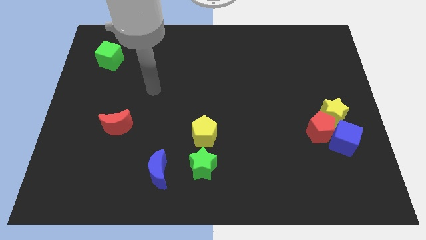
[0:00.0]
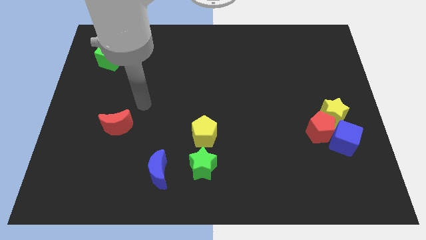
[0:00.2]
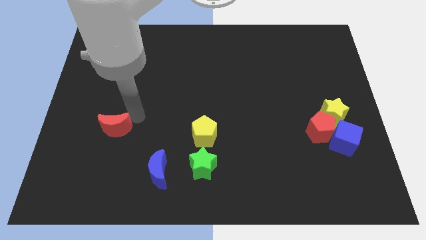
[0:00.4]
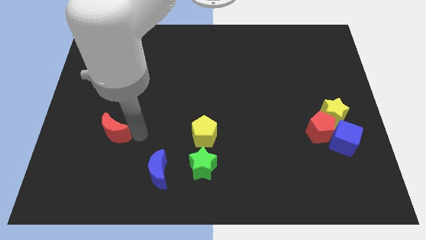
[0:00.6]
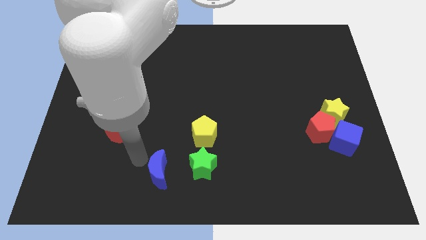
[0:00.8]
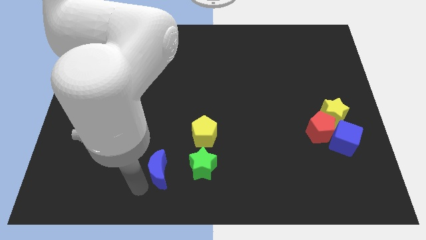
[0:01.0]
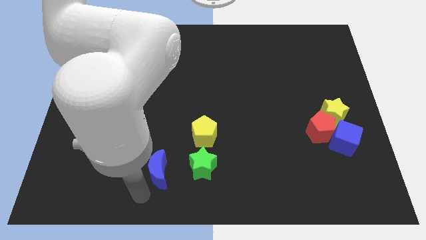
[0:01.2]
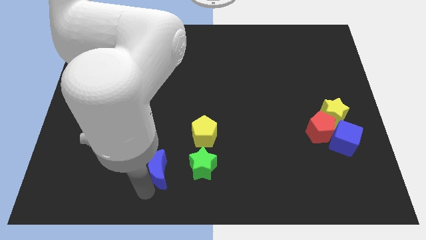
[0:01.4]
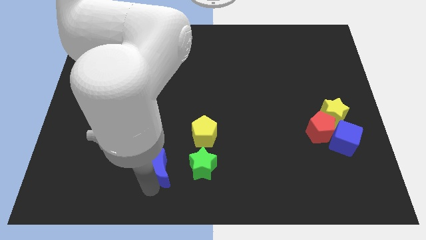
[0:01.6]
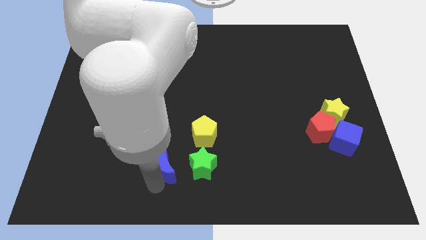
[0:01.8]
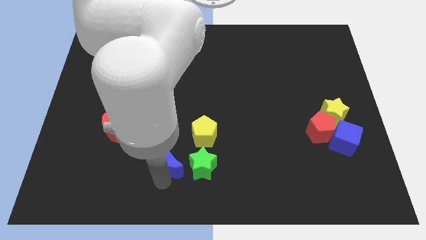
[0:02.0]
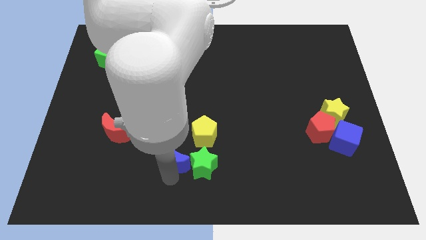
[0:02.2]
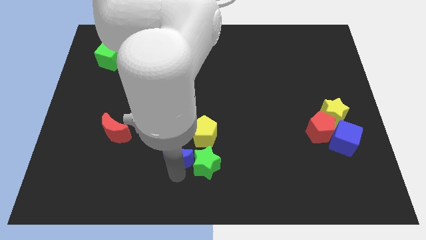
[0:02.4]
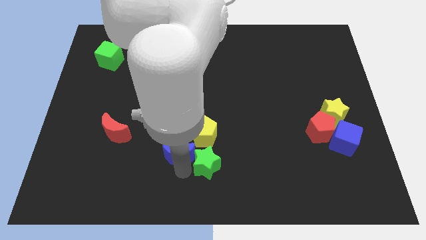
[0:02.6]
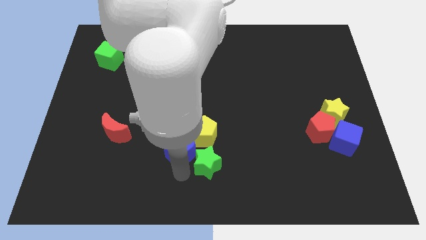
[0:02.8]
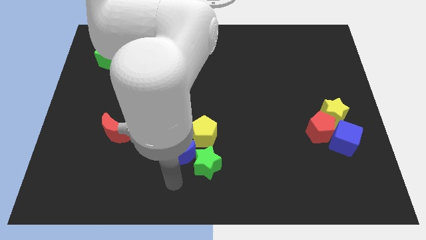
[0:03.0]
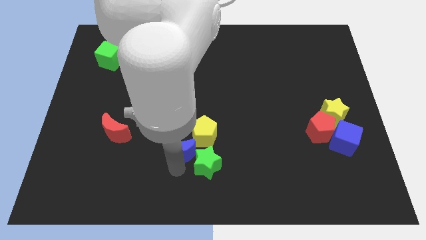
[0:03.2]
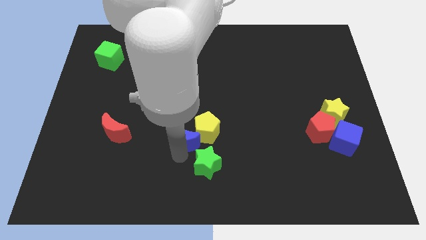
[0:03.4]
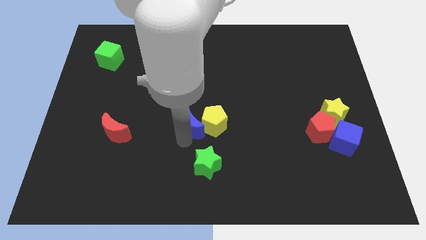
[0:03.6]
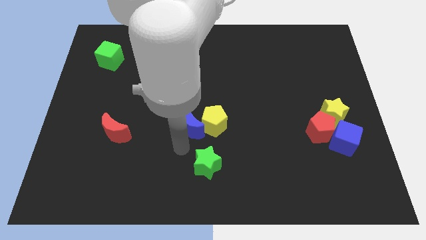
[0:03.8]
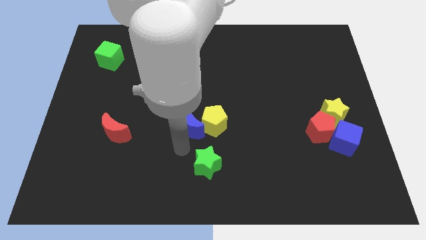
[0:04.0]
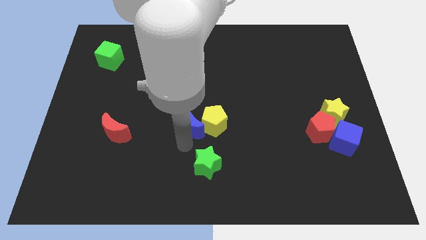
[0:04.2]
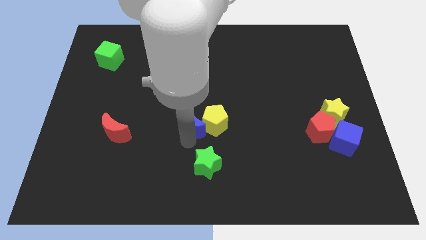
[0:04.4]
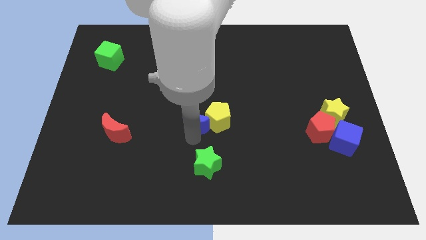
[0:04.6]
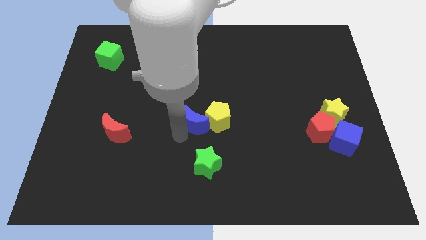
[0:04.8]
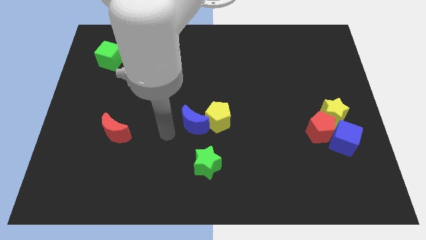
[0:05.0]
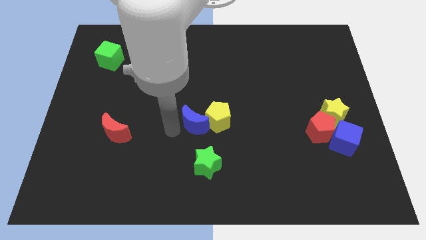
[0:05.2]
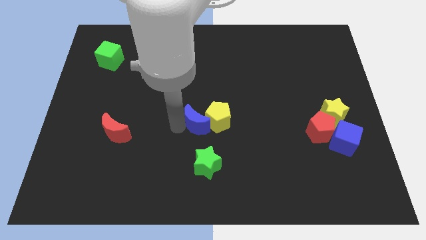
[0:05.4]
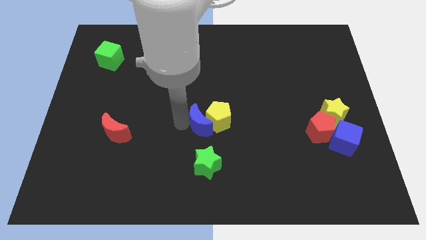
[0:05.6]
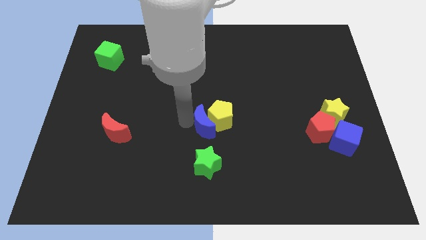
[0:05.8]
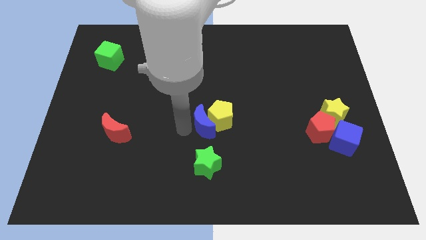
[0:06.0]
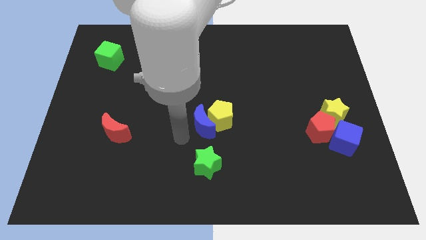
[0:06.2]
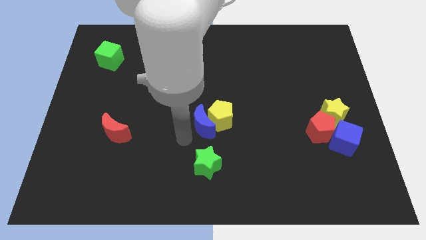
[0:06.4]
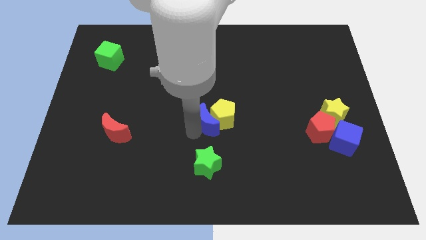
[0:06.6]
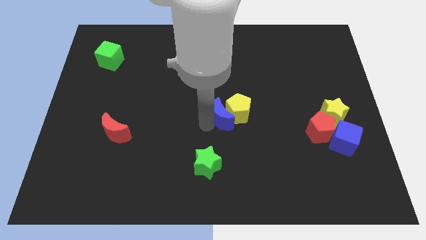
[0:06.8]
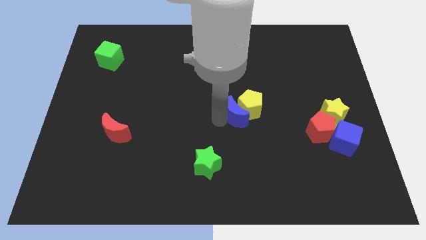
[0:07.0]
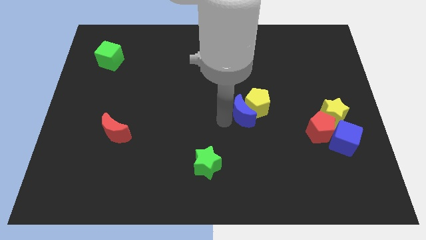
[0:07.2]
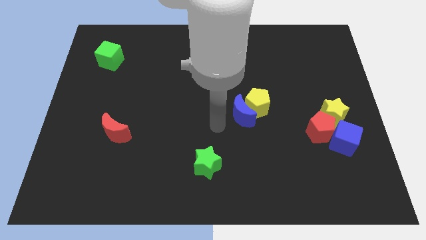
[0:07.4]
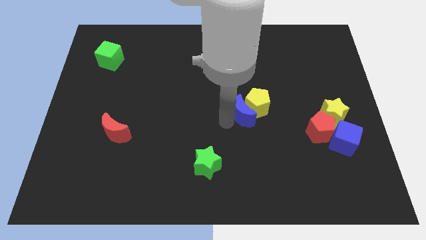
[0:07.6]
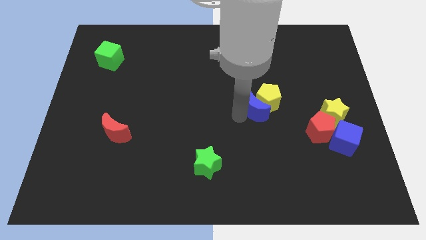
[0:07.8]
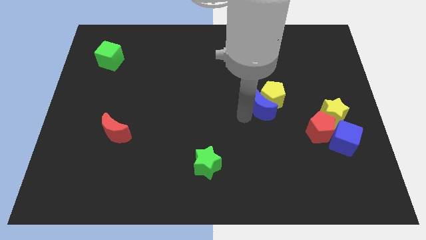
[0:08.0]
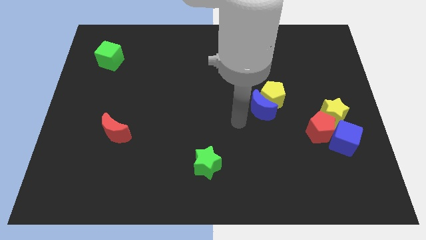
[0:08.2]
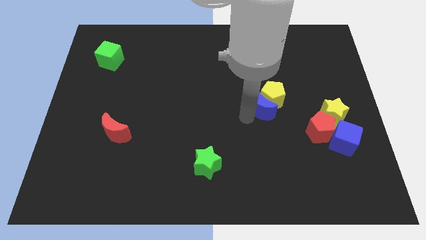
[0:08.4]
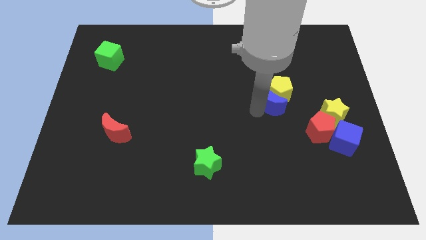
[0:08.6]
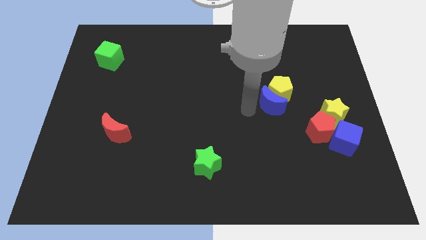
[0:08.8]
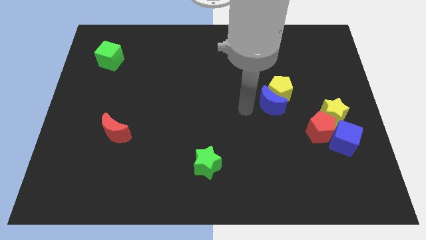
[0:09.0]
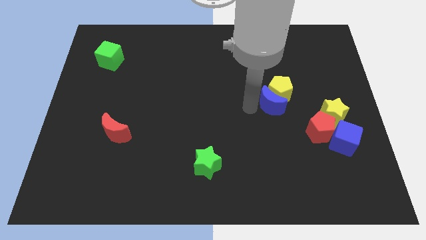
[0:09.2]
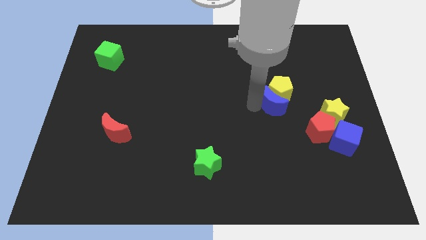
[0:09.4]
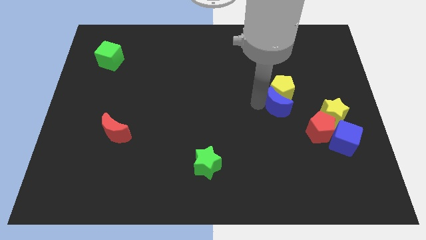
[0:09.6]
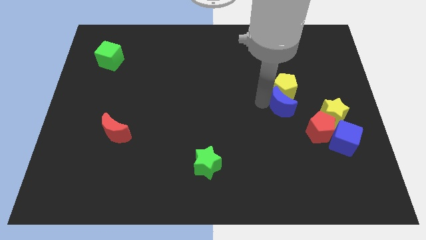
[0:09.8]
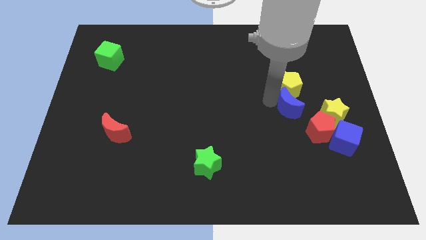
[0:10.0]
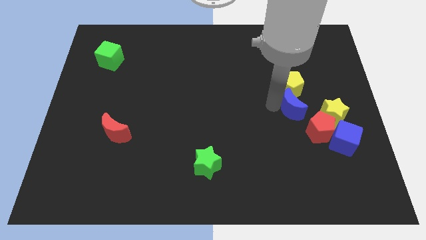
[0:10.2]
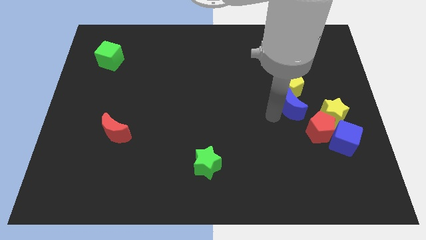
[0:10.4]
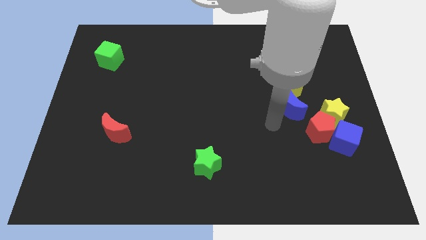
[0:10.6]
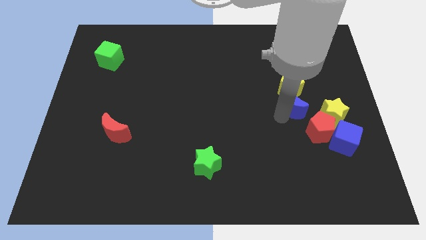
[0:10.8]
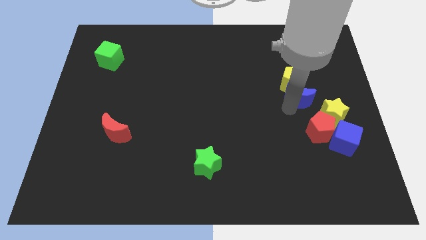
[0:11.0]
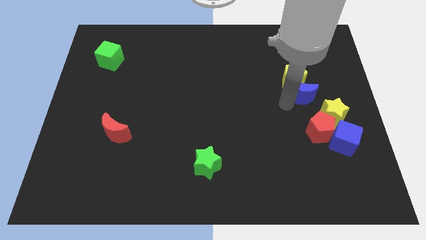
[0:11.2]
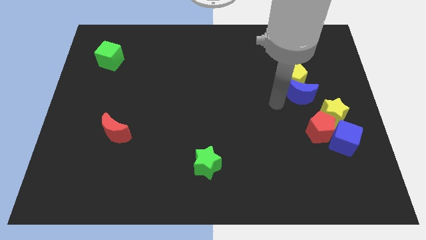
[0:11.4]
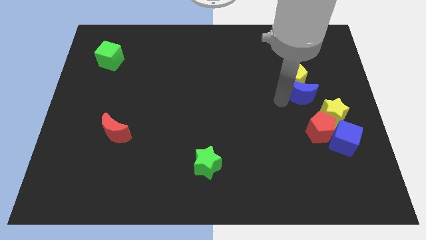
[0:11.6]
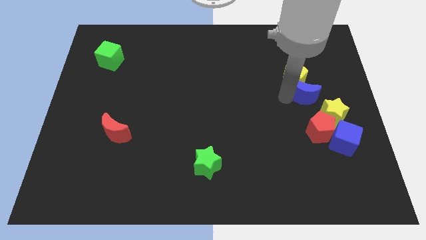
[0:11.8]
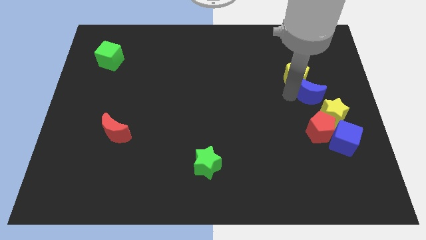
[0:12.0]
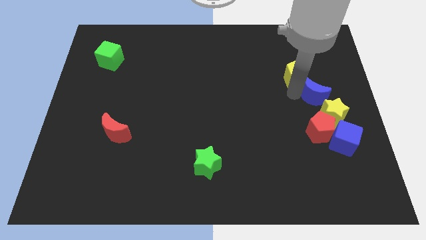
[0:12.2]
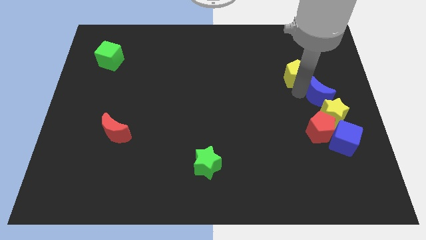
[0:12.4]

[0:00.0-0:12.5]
slide the blue moon to the right side
